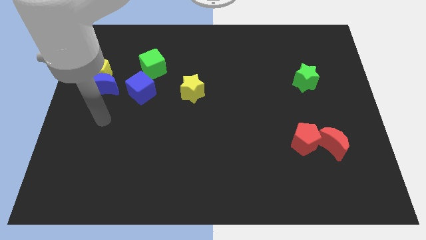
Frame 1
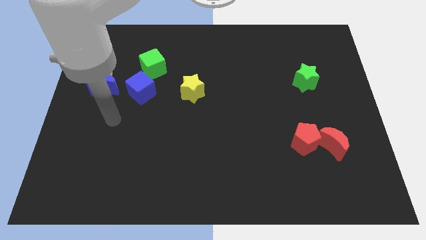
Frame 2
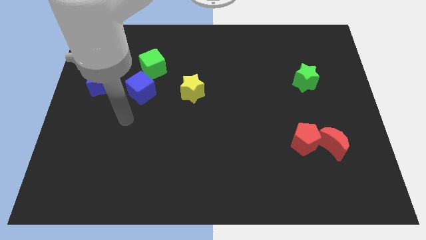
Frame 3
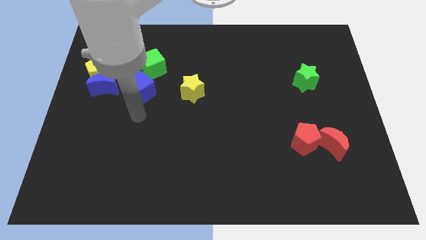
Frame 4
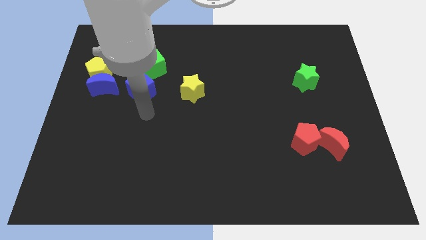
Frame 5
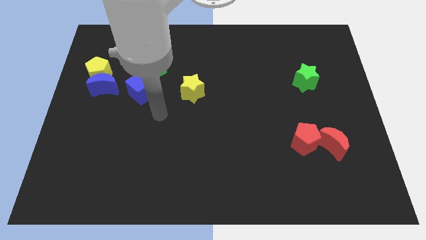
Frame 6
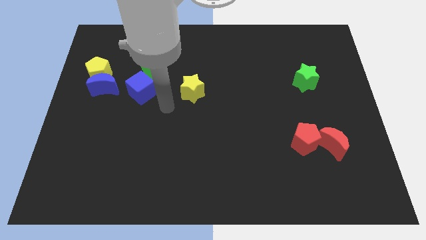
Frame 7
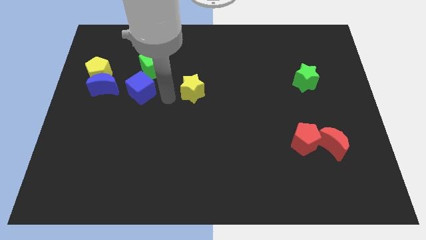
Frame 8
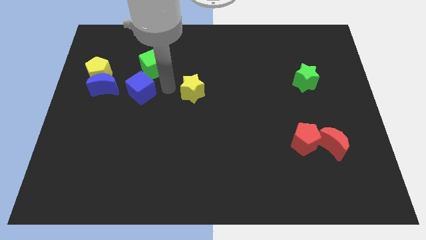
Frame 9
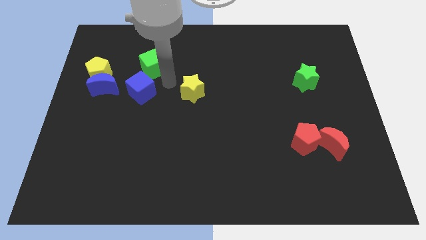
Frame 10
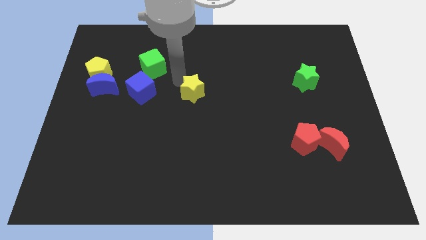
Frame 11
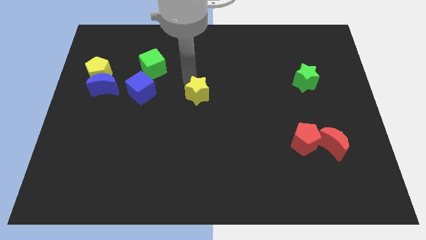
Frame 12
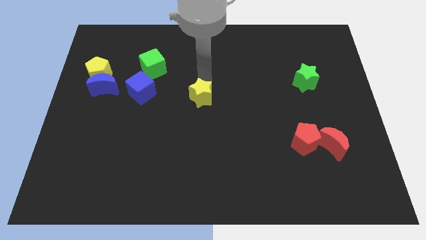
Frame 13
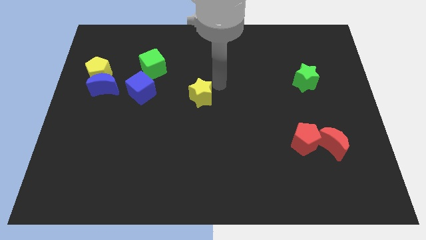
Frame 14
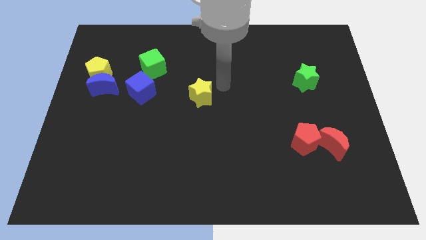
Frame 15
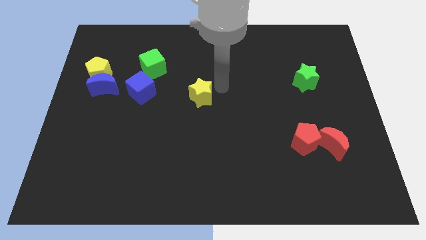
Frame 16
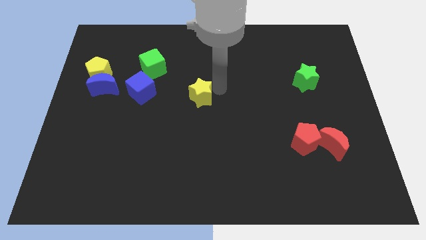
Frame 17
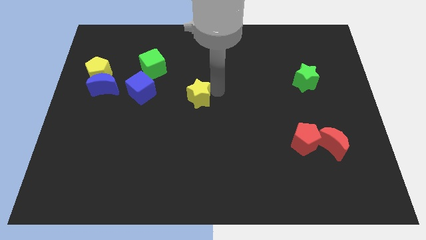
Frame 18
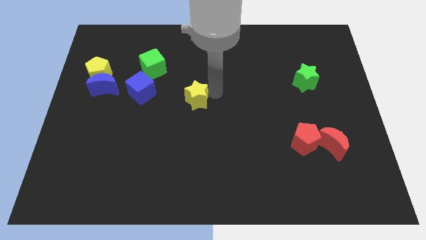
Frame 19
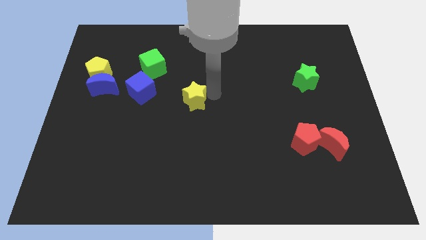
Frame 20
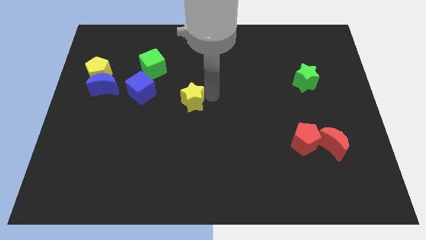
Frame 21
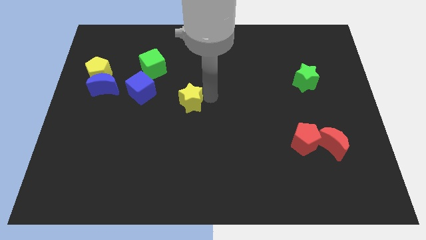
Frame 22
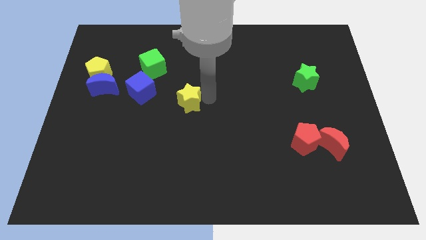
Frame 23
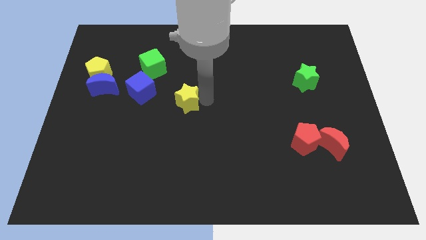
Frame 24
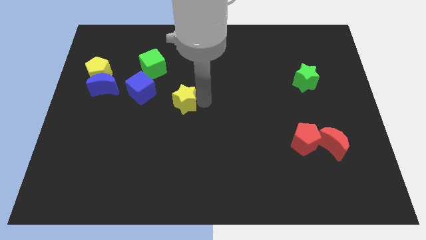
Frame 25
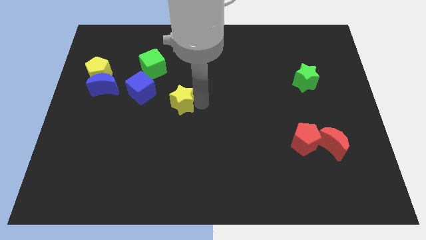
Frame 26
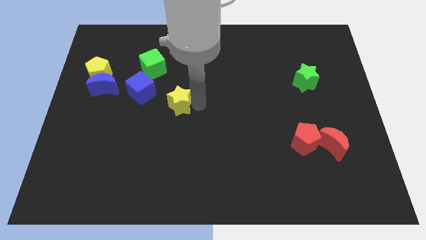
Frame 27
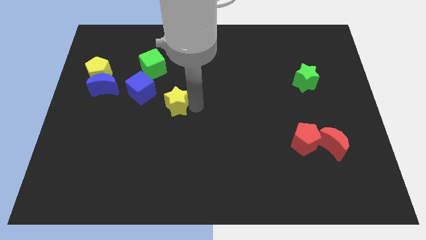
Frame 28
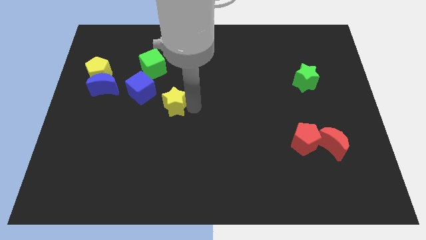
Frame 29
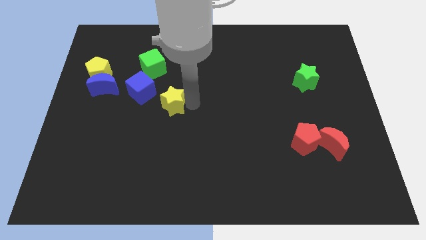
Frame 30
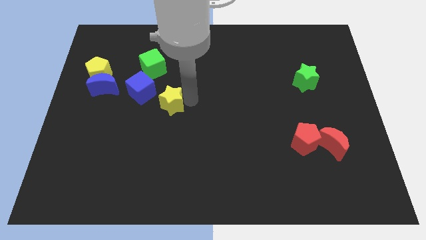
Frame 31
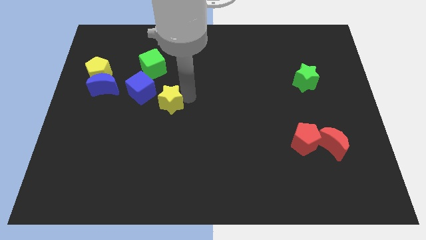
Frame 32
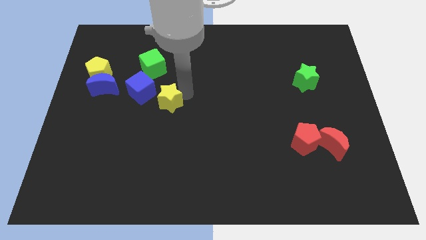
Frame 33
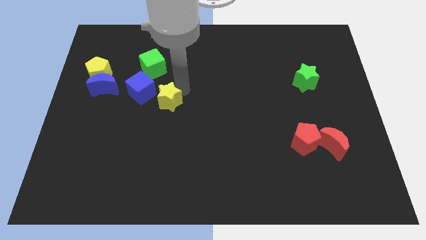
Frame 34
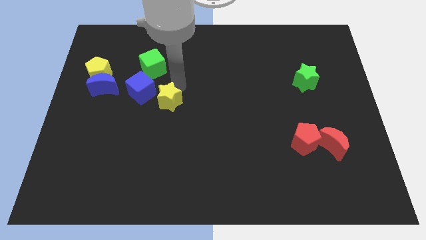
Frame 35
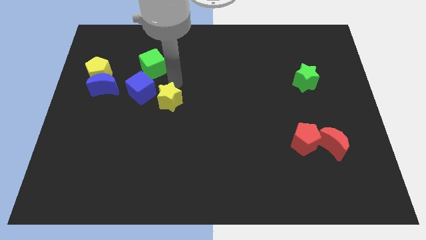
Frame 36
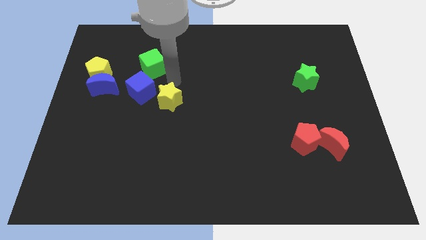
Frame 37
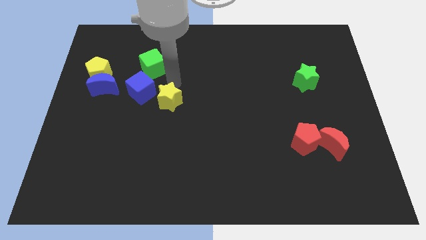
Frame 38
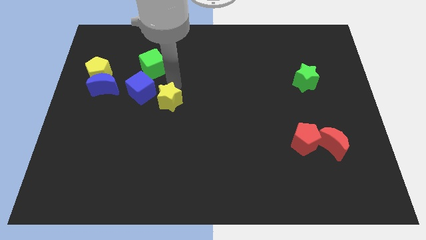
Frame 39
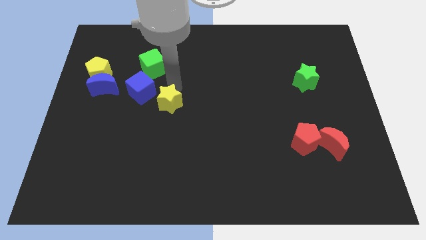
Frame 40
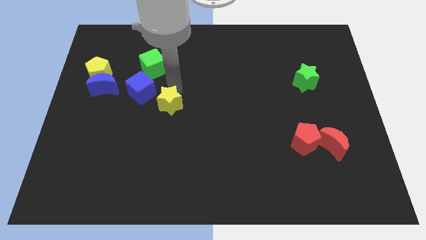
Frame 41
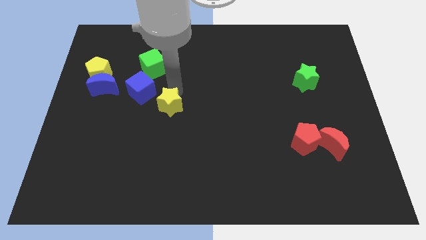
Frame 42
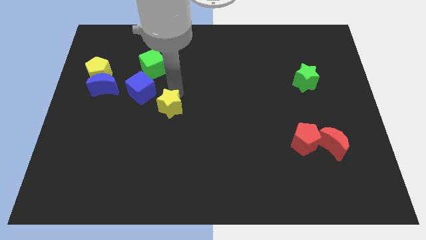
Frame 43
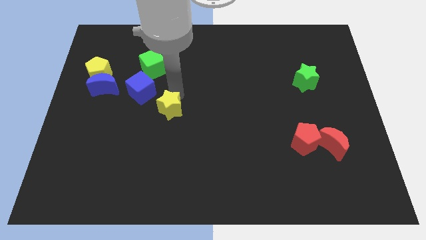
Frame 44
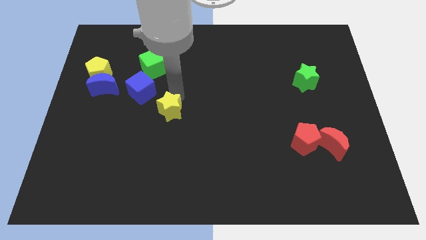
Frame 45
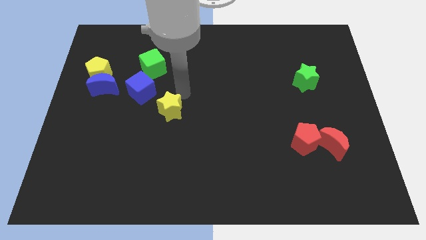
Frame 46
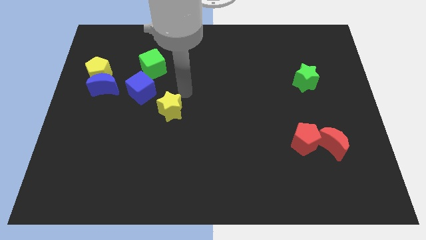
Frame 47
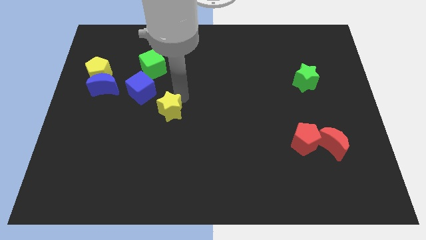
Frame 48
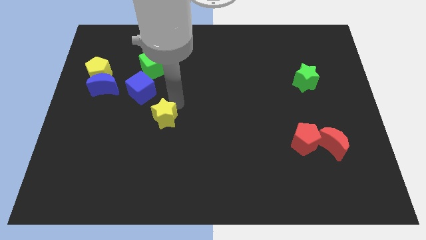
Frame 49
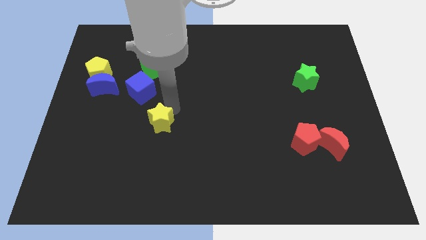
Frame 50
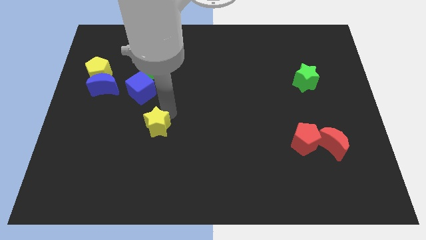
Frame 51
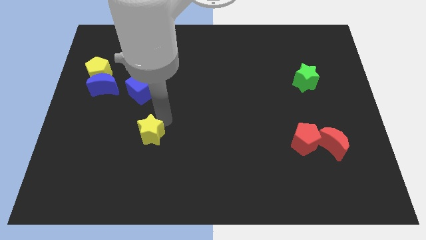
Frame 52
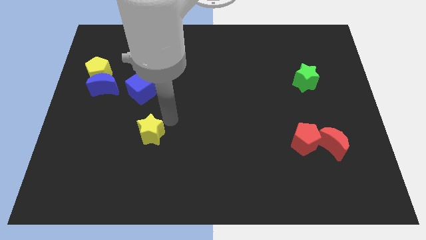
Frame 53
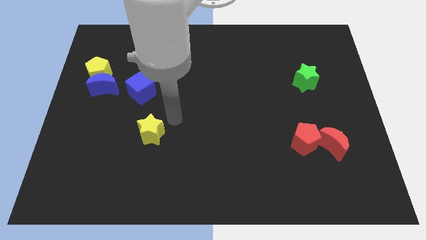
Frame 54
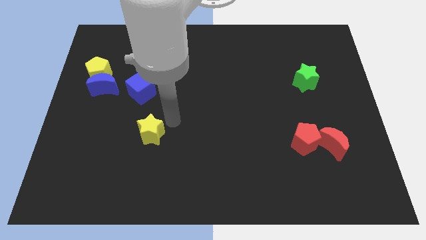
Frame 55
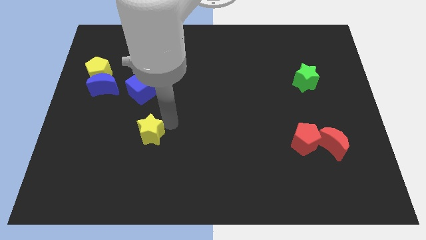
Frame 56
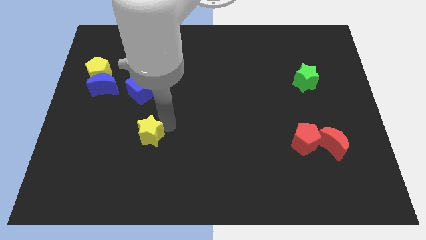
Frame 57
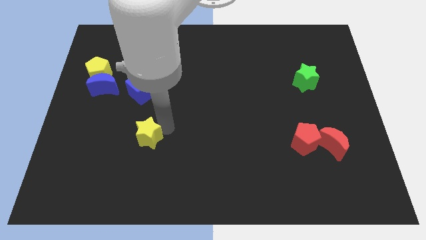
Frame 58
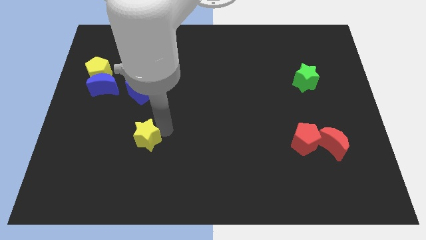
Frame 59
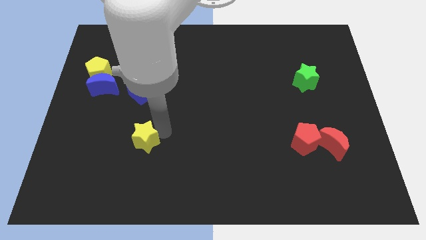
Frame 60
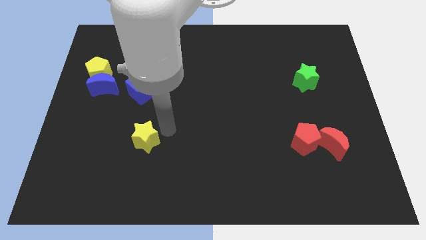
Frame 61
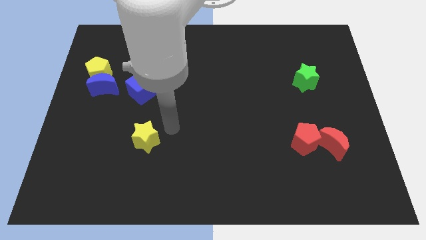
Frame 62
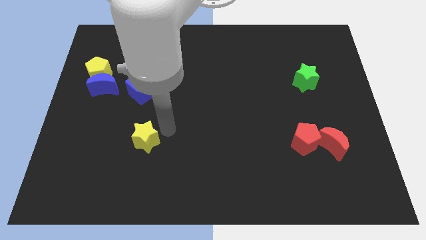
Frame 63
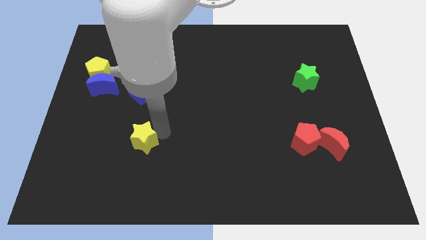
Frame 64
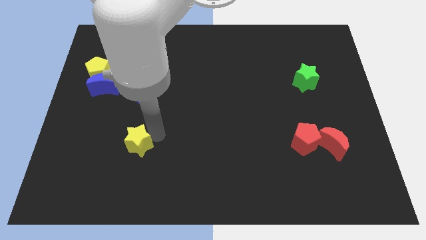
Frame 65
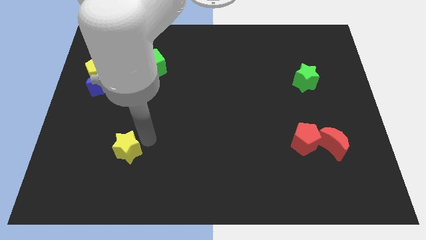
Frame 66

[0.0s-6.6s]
push the yellow star downwards and left diagonally

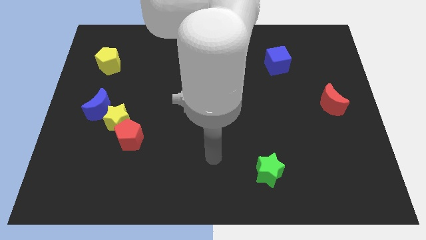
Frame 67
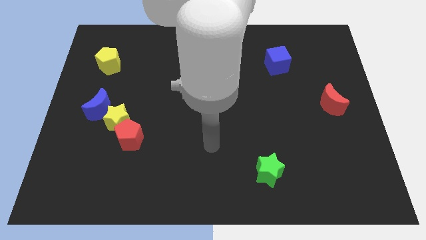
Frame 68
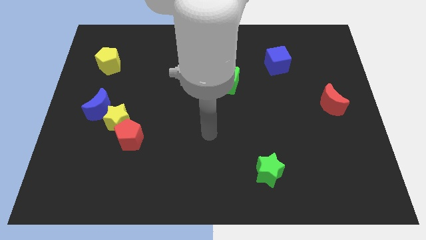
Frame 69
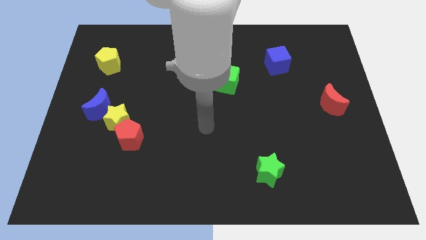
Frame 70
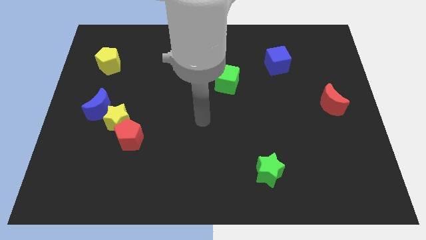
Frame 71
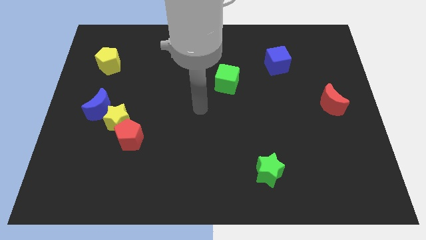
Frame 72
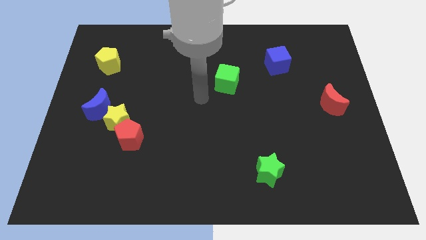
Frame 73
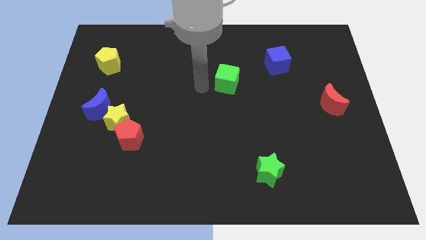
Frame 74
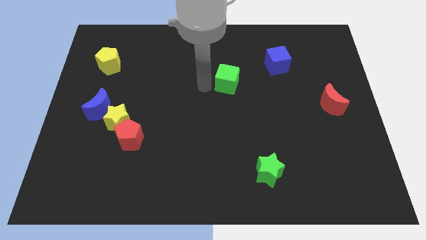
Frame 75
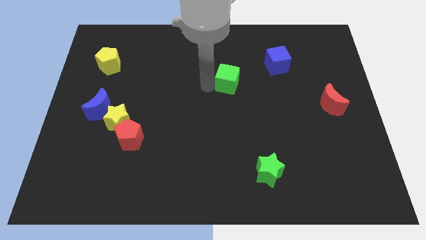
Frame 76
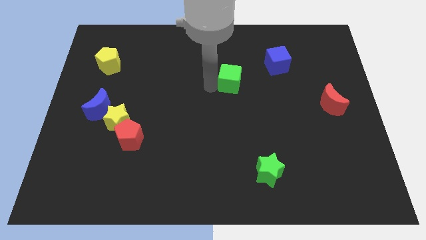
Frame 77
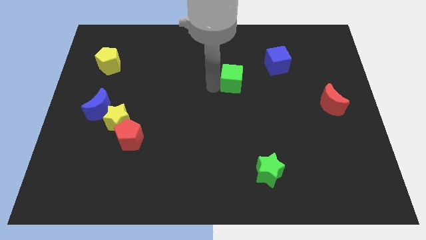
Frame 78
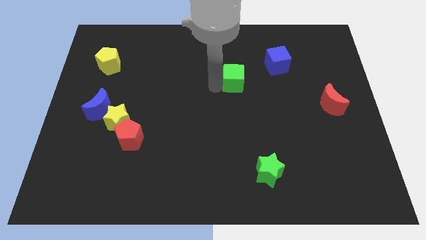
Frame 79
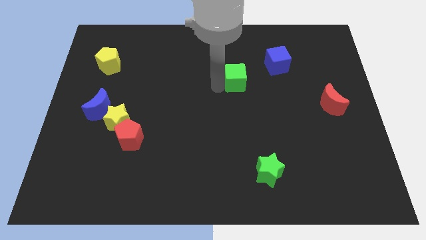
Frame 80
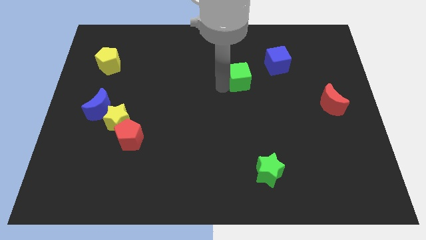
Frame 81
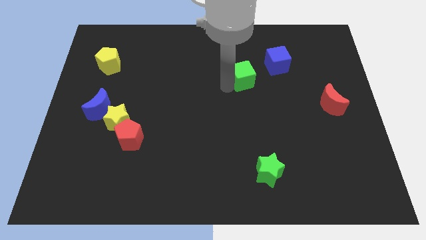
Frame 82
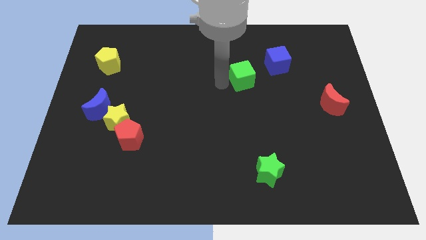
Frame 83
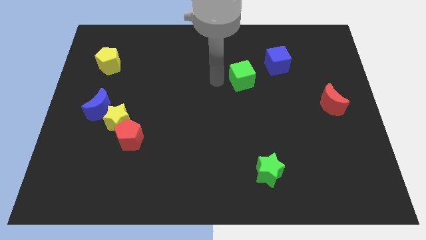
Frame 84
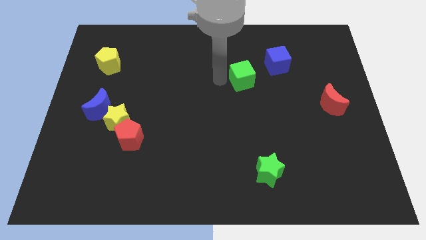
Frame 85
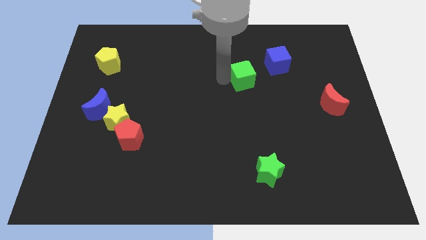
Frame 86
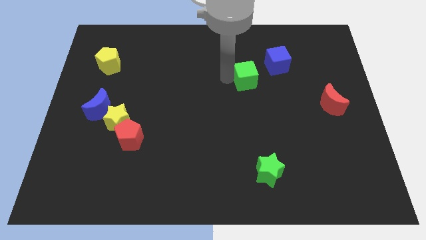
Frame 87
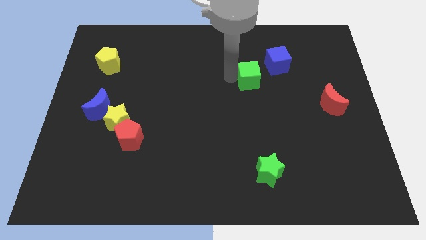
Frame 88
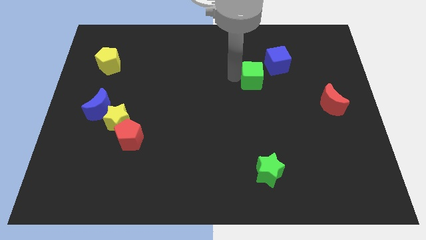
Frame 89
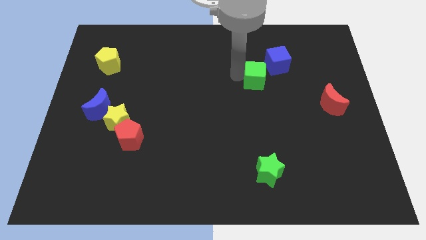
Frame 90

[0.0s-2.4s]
push the green cube somewhat right
